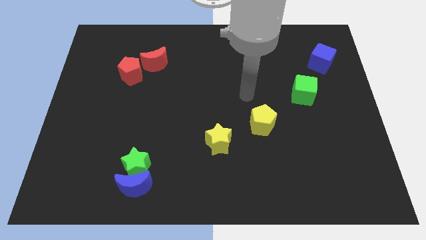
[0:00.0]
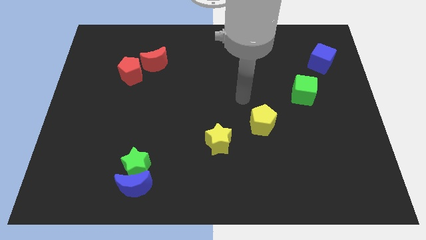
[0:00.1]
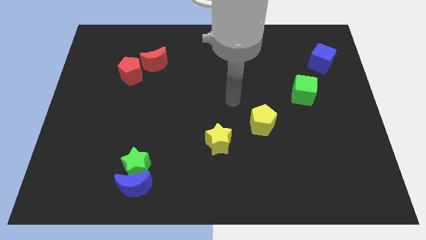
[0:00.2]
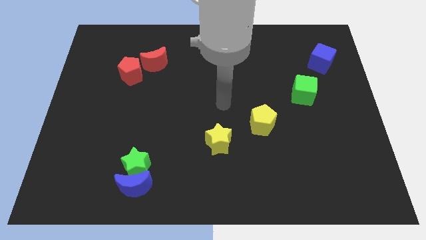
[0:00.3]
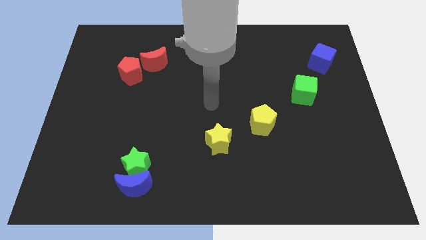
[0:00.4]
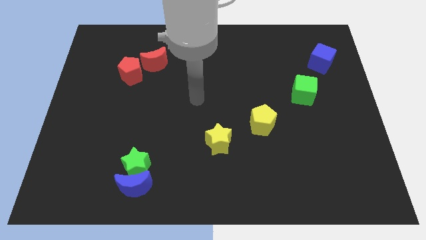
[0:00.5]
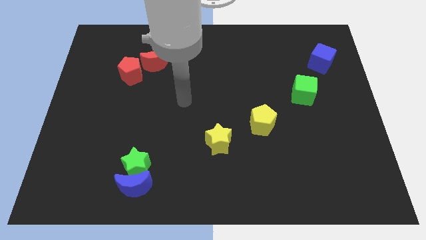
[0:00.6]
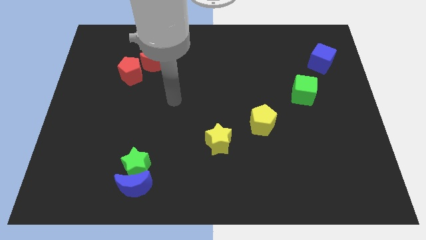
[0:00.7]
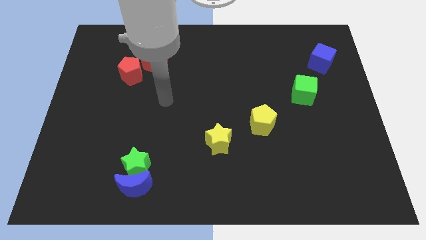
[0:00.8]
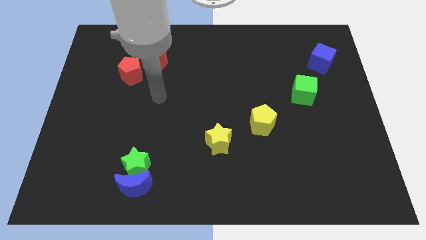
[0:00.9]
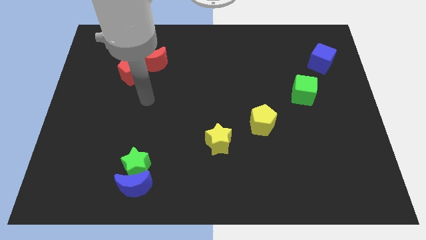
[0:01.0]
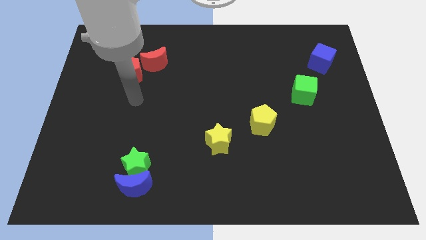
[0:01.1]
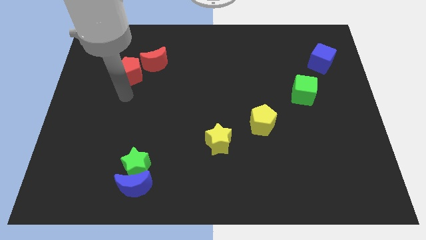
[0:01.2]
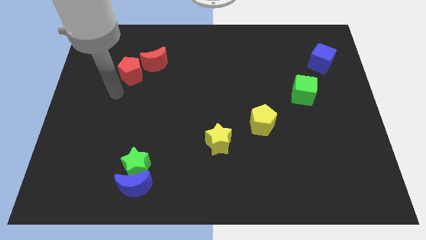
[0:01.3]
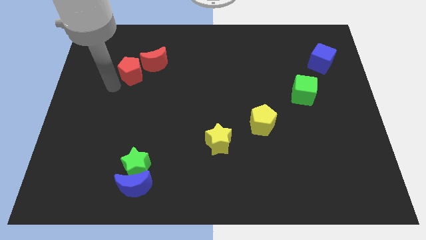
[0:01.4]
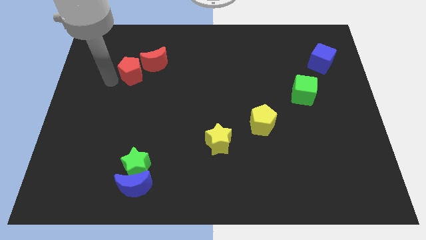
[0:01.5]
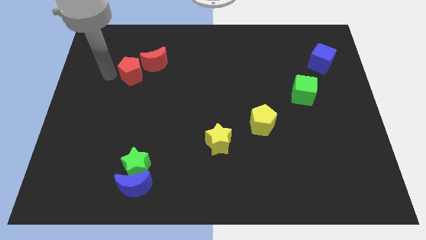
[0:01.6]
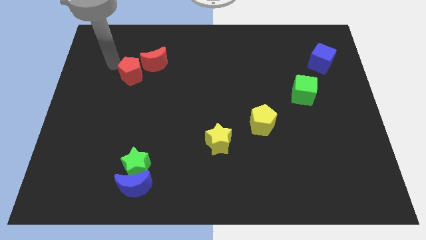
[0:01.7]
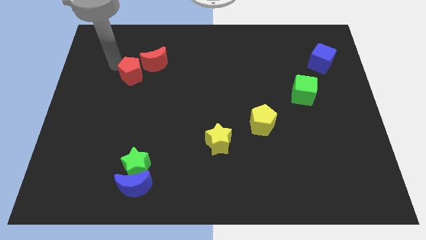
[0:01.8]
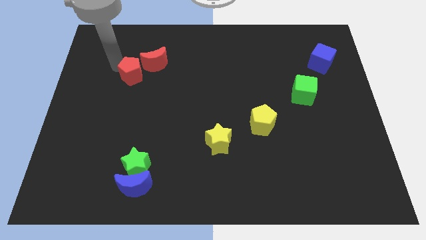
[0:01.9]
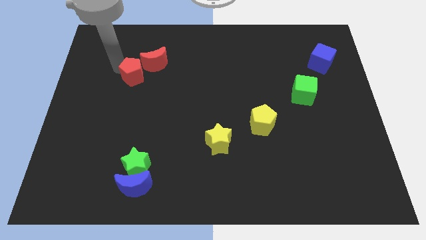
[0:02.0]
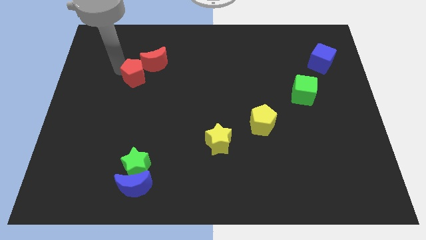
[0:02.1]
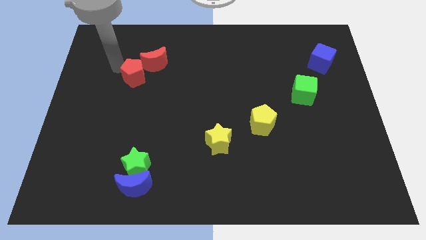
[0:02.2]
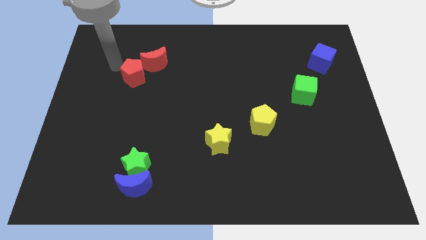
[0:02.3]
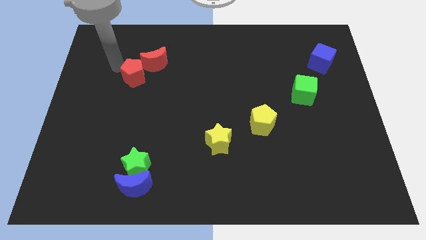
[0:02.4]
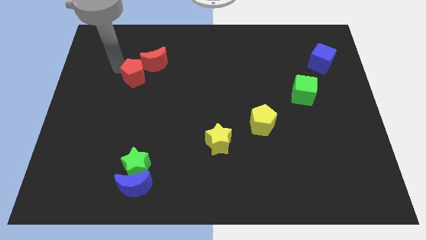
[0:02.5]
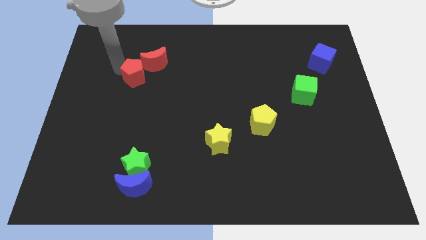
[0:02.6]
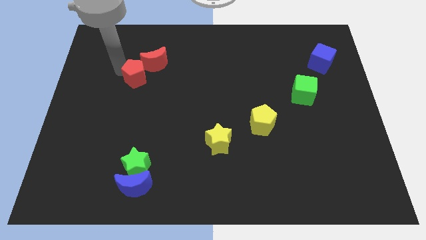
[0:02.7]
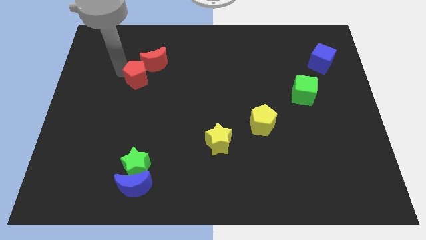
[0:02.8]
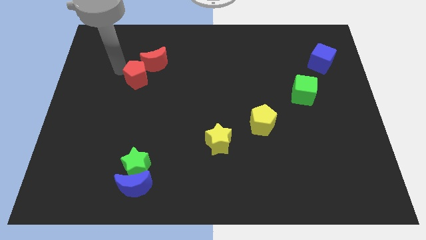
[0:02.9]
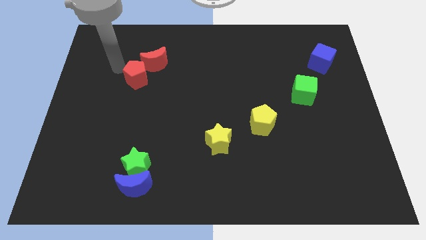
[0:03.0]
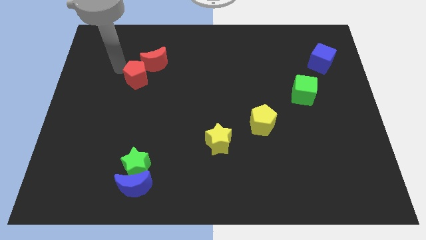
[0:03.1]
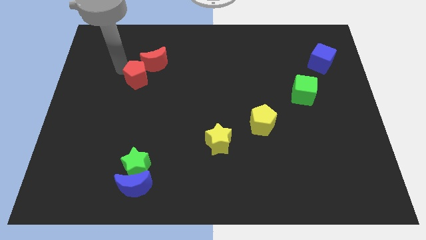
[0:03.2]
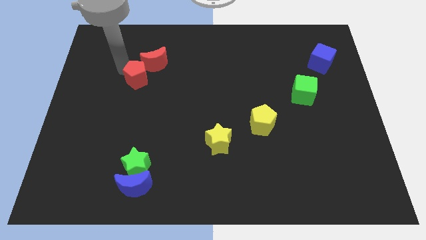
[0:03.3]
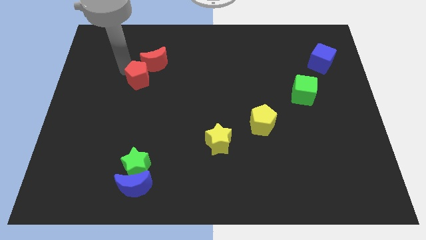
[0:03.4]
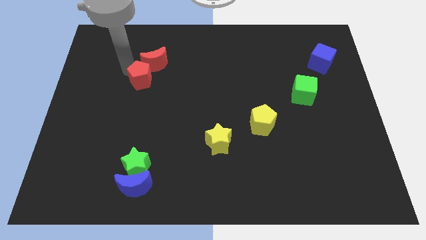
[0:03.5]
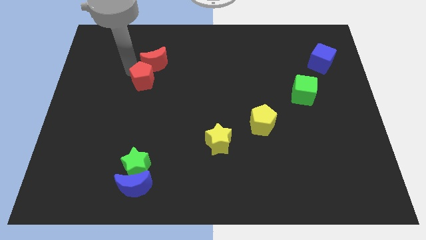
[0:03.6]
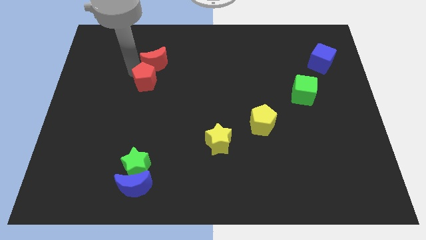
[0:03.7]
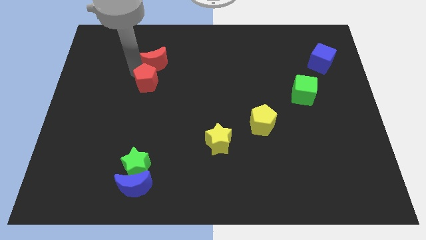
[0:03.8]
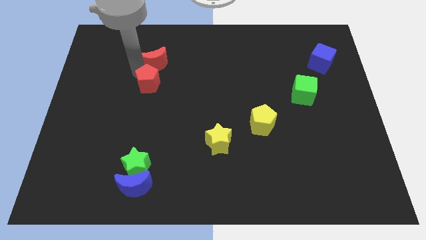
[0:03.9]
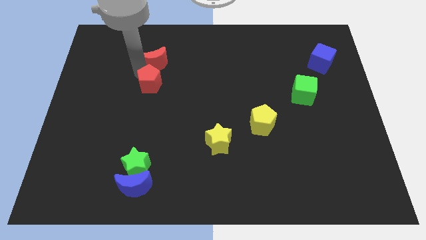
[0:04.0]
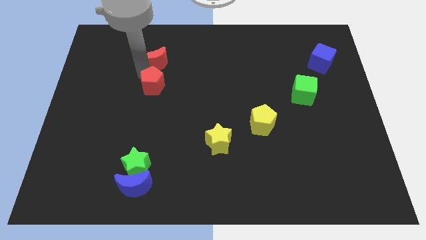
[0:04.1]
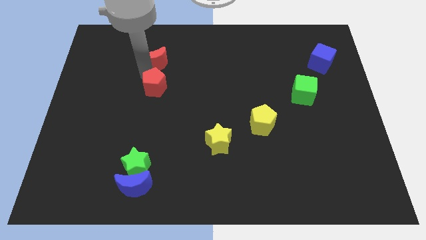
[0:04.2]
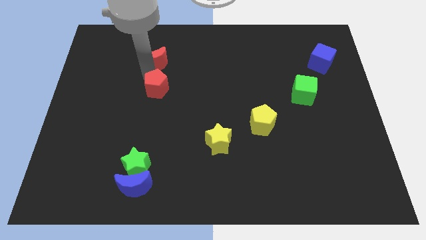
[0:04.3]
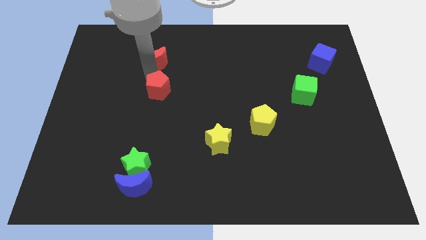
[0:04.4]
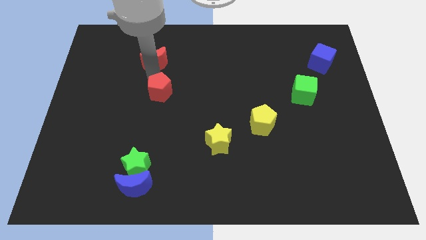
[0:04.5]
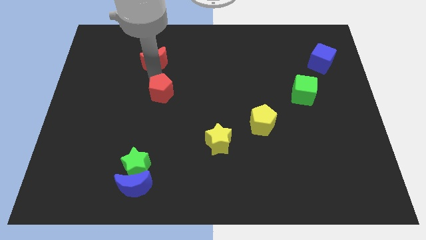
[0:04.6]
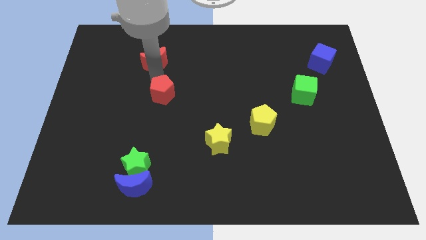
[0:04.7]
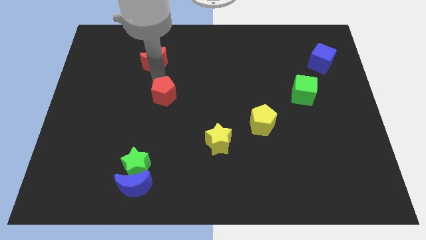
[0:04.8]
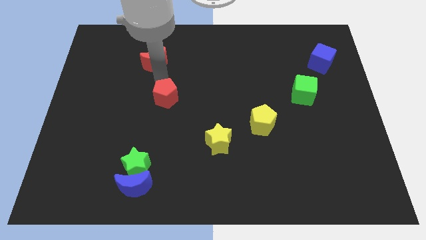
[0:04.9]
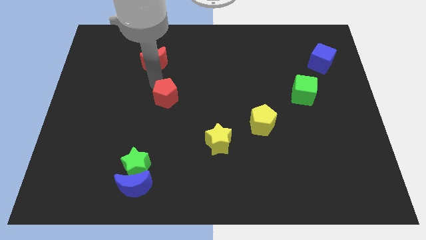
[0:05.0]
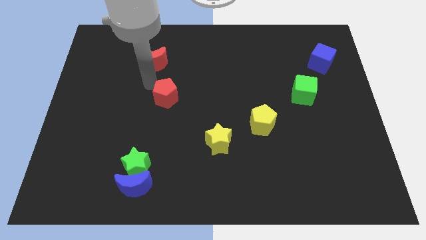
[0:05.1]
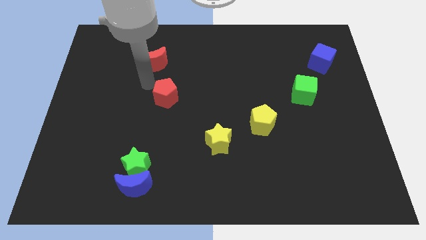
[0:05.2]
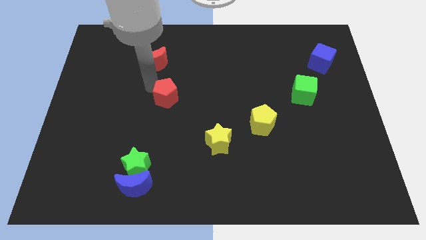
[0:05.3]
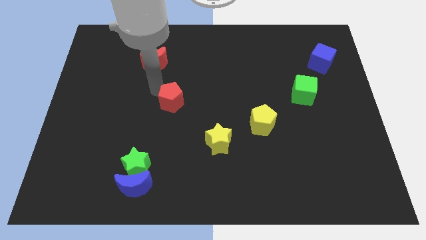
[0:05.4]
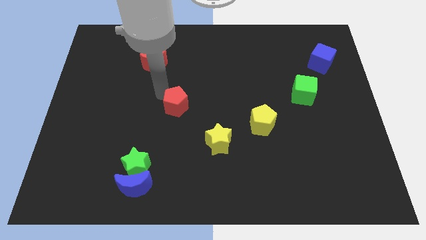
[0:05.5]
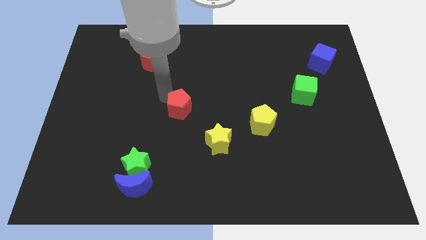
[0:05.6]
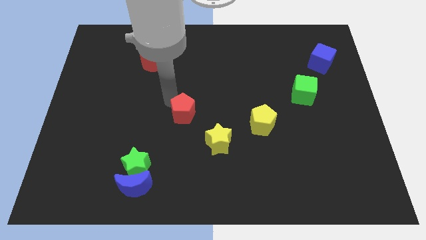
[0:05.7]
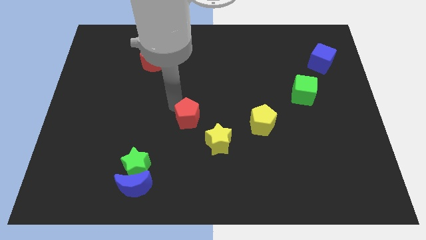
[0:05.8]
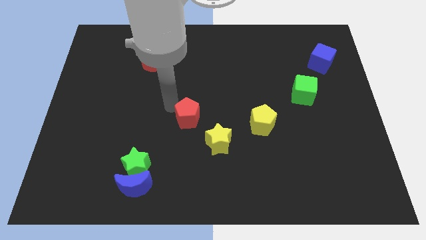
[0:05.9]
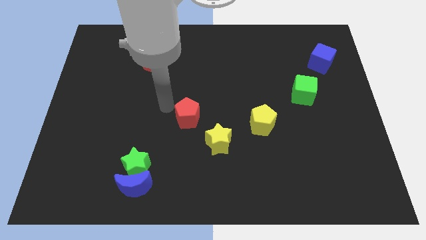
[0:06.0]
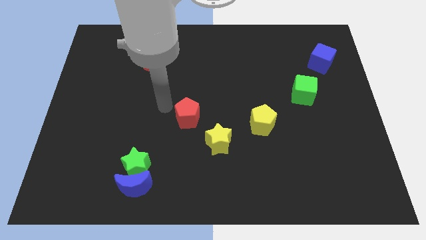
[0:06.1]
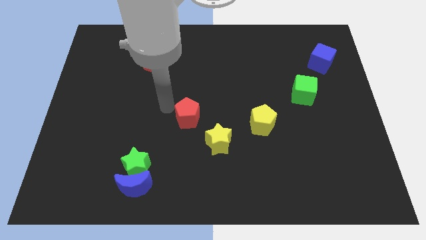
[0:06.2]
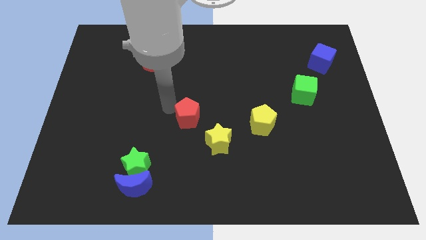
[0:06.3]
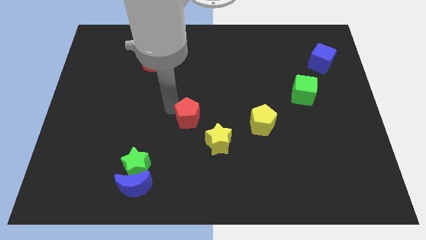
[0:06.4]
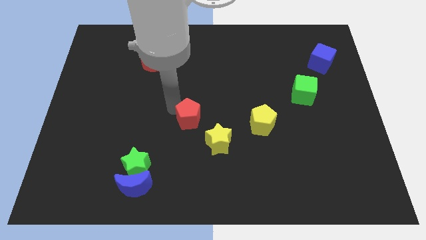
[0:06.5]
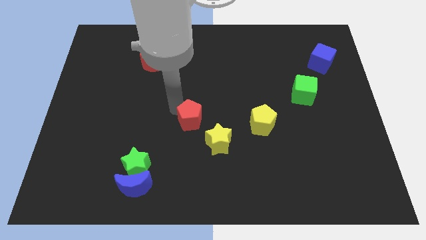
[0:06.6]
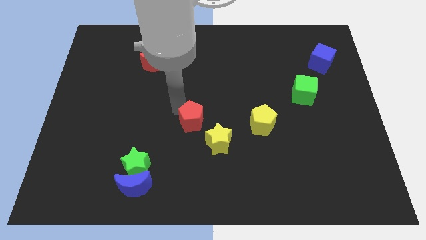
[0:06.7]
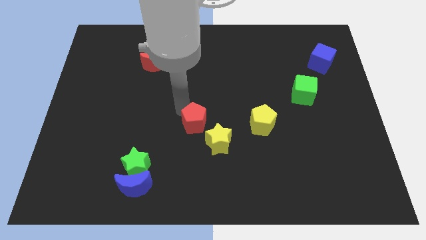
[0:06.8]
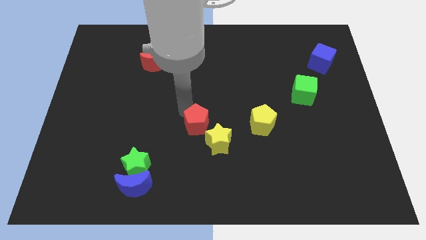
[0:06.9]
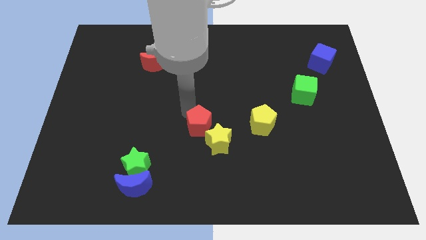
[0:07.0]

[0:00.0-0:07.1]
slide the red pentagon towards the yellow star
